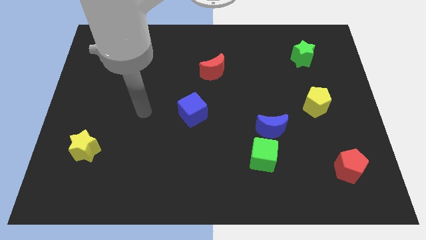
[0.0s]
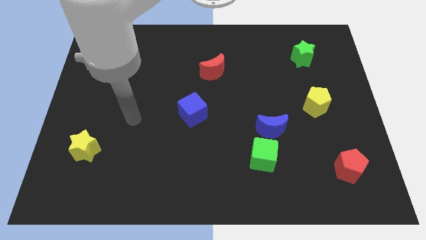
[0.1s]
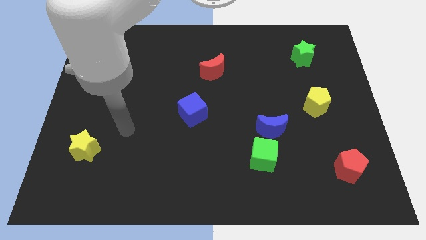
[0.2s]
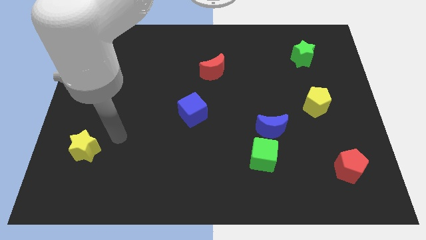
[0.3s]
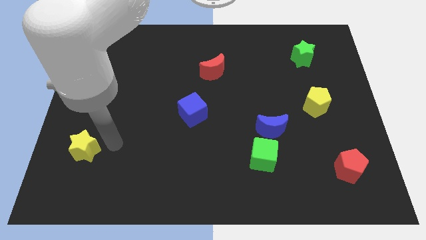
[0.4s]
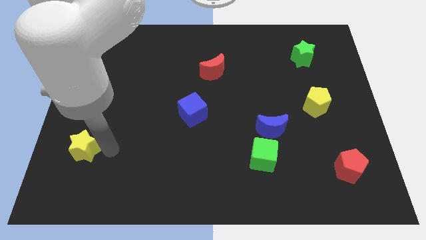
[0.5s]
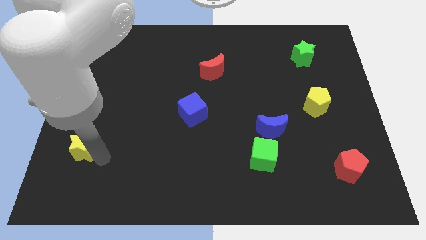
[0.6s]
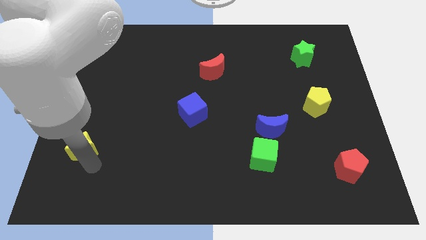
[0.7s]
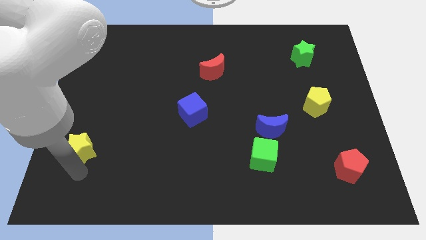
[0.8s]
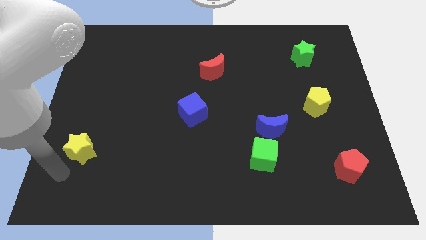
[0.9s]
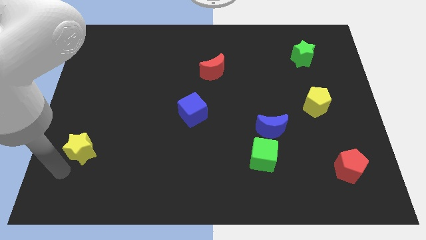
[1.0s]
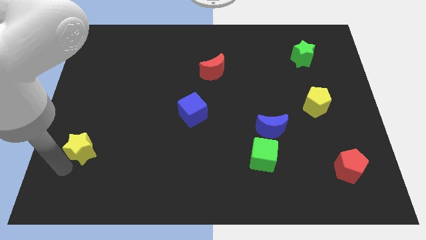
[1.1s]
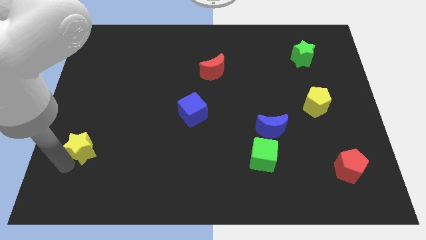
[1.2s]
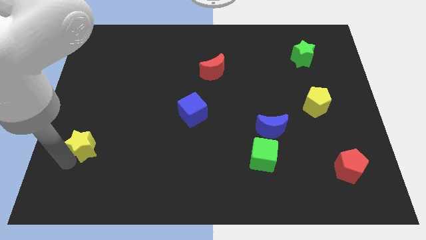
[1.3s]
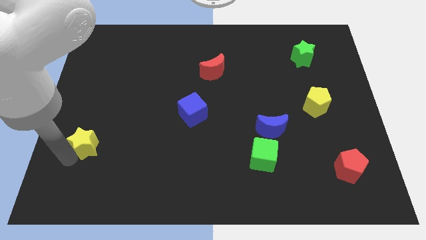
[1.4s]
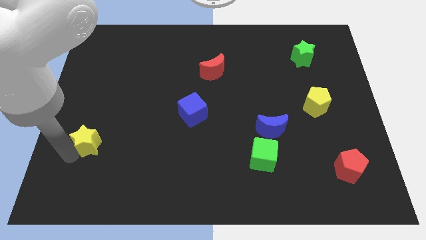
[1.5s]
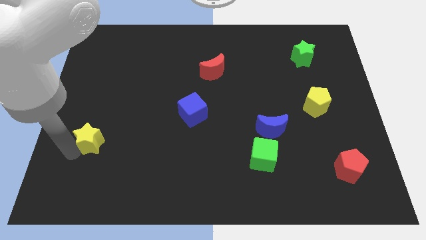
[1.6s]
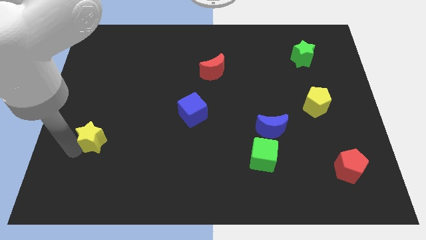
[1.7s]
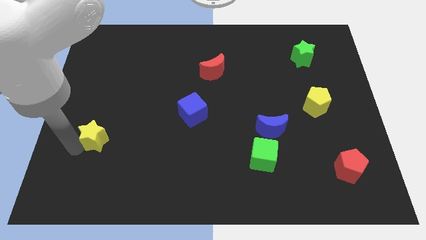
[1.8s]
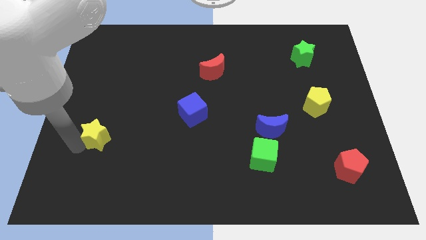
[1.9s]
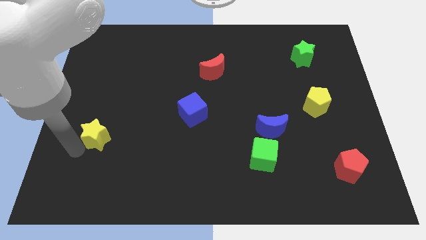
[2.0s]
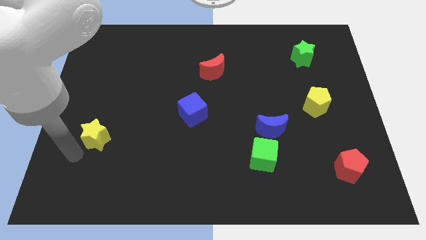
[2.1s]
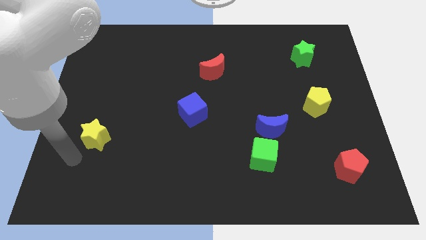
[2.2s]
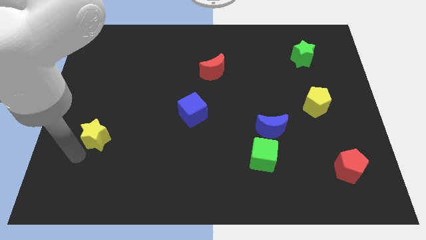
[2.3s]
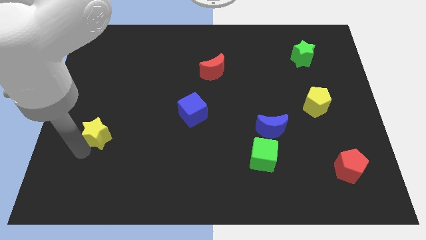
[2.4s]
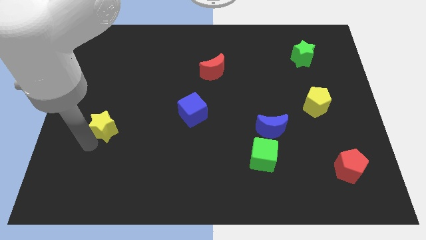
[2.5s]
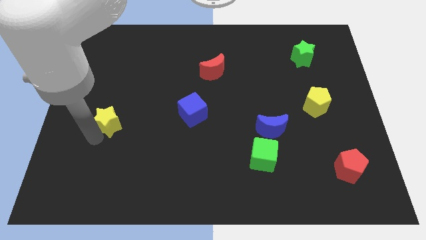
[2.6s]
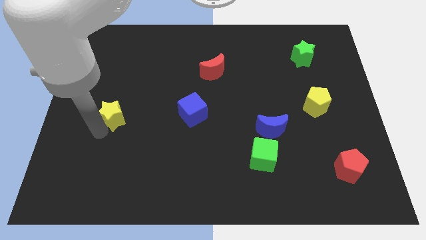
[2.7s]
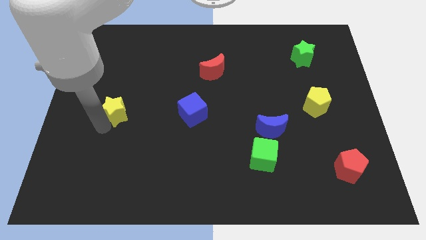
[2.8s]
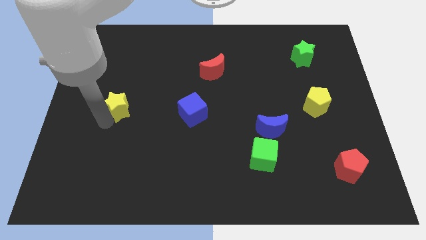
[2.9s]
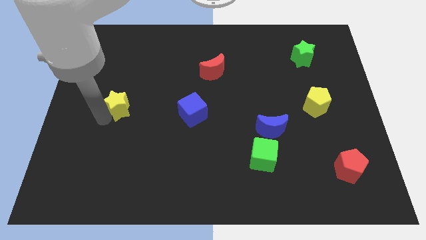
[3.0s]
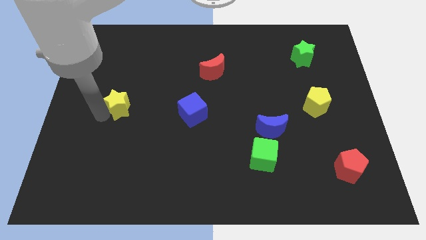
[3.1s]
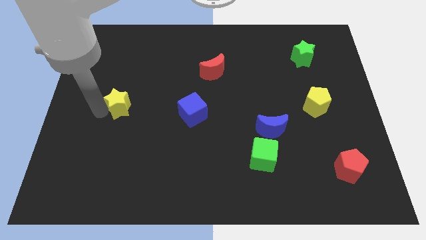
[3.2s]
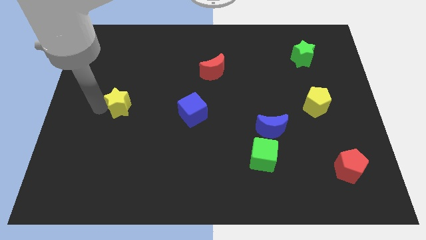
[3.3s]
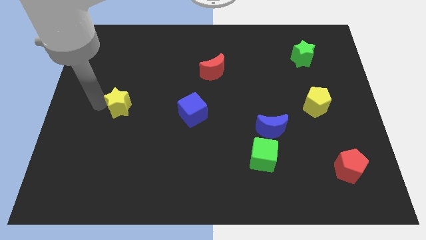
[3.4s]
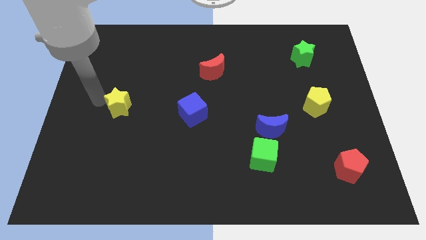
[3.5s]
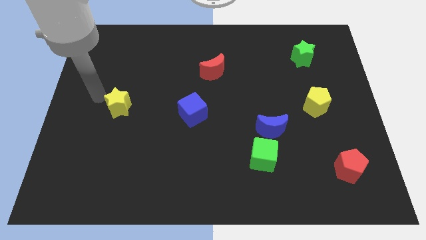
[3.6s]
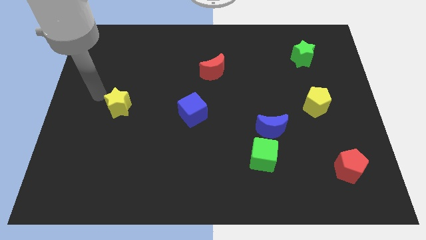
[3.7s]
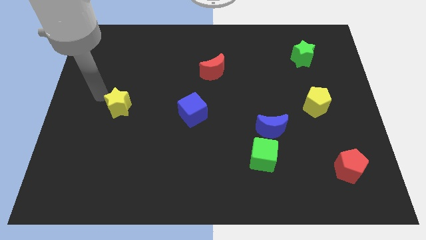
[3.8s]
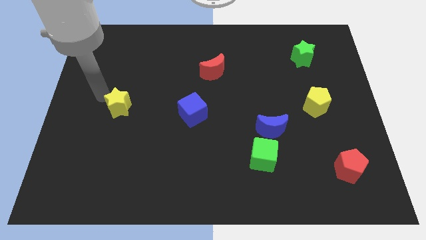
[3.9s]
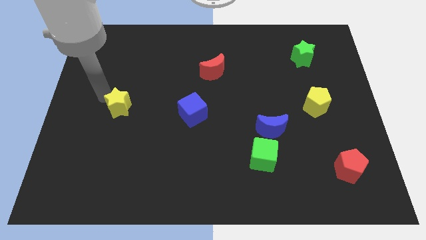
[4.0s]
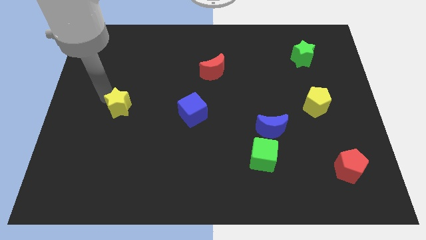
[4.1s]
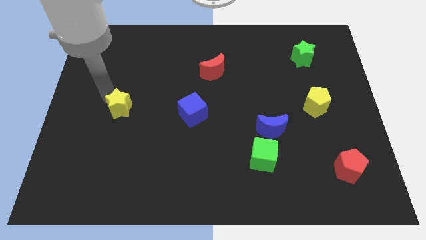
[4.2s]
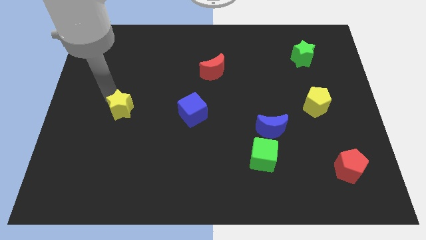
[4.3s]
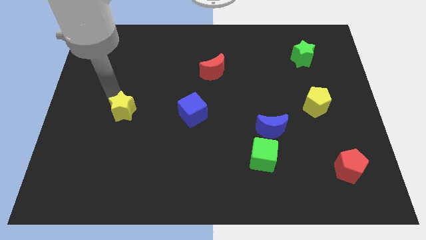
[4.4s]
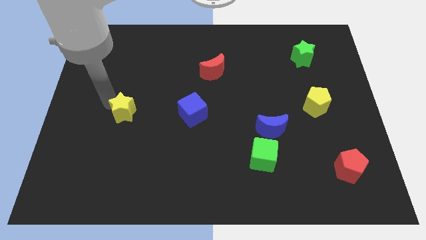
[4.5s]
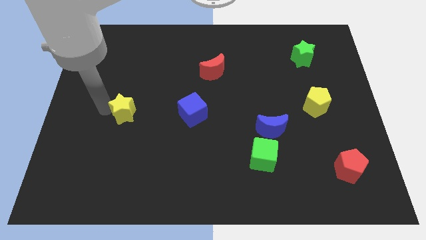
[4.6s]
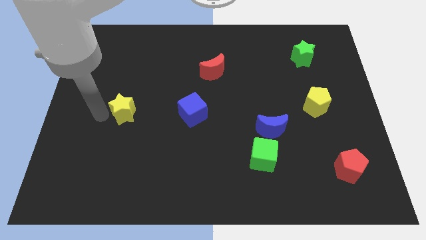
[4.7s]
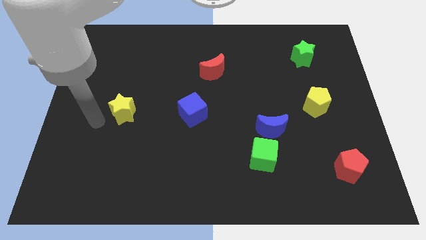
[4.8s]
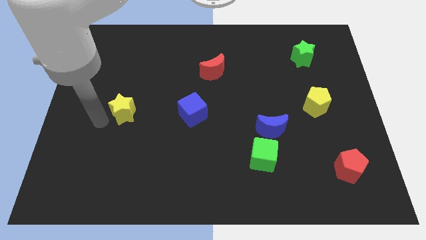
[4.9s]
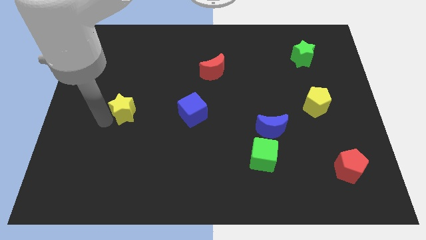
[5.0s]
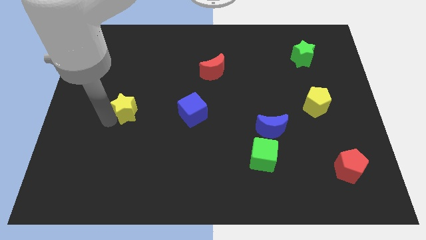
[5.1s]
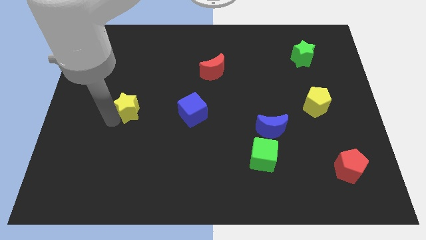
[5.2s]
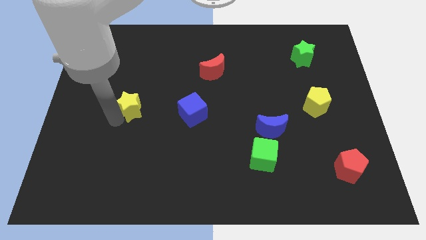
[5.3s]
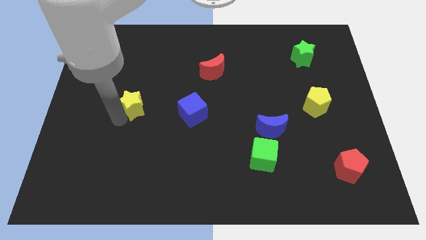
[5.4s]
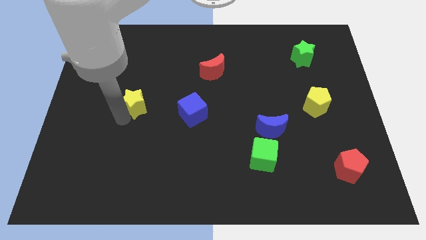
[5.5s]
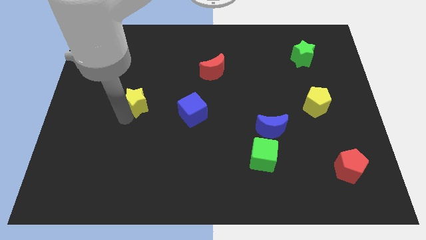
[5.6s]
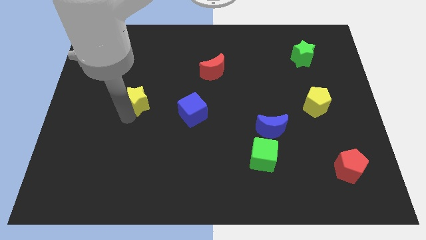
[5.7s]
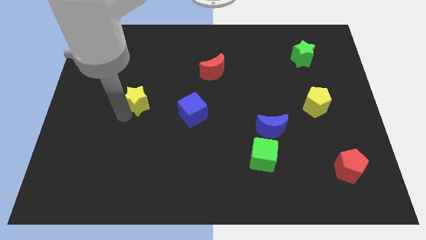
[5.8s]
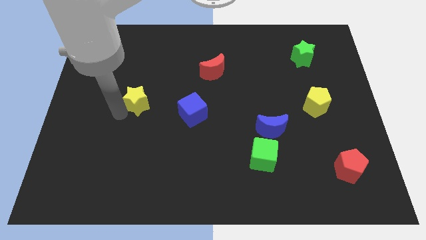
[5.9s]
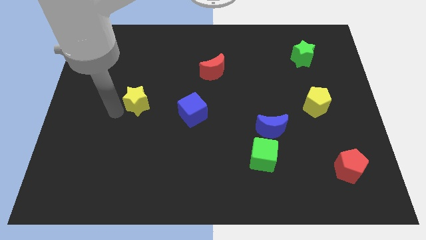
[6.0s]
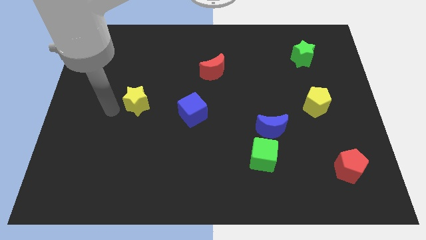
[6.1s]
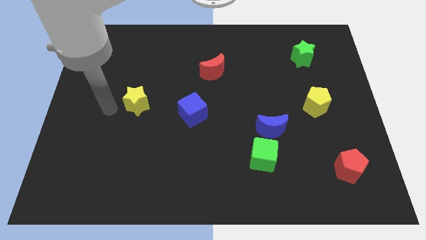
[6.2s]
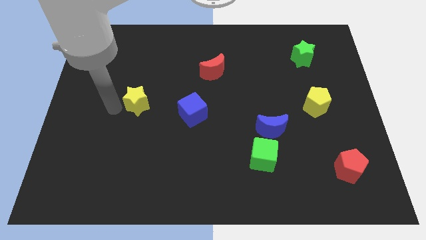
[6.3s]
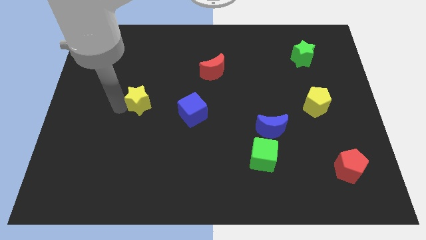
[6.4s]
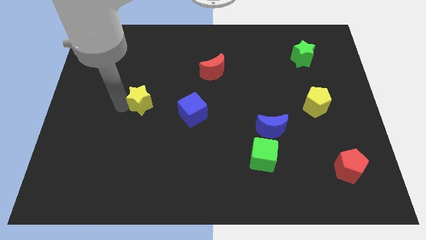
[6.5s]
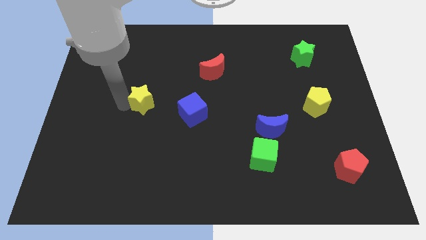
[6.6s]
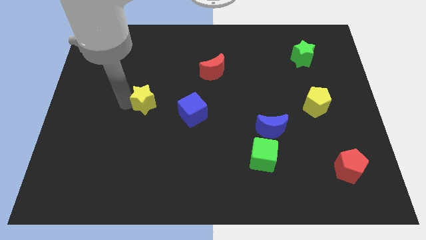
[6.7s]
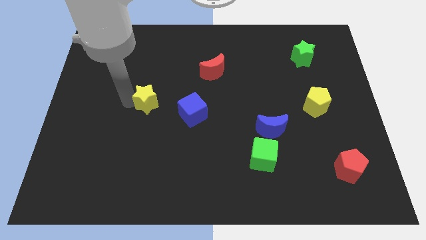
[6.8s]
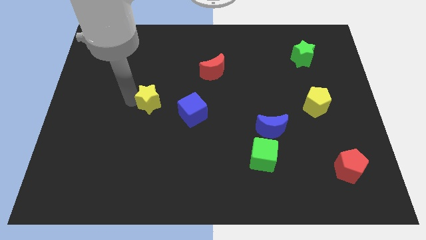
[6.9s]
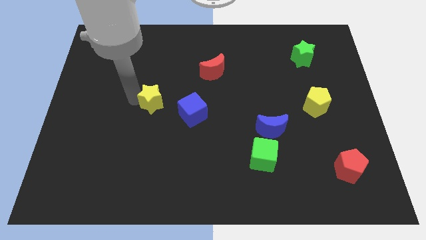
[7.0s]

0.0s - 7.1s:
push the yellow star to the top left side of the blue cube

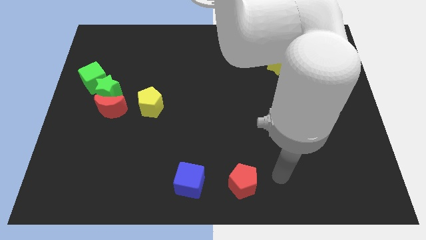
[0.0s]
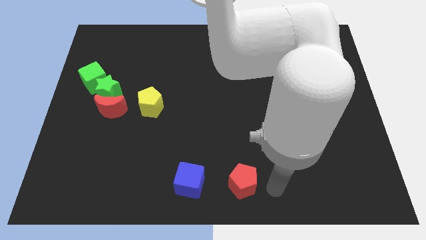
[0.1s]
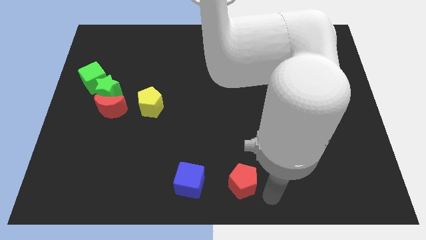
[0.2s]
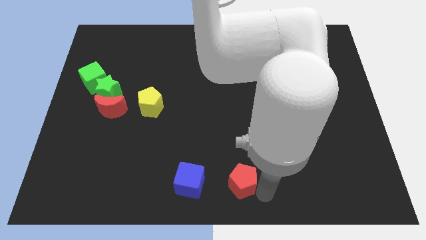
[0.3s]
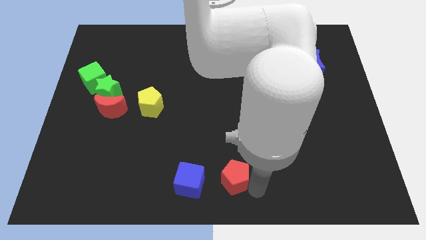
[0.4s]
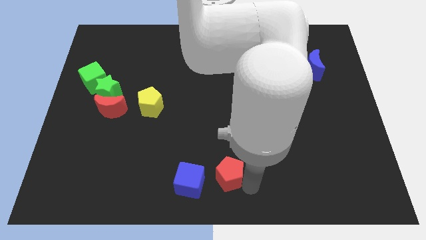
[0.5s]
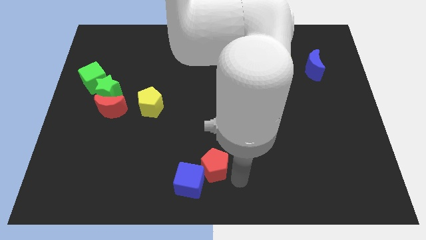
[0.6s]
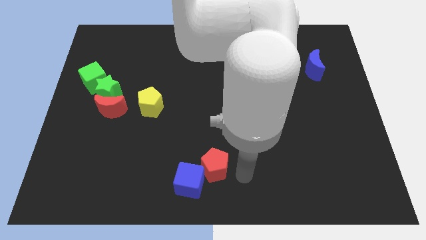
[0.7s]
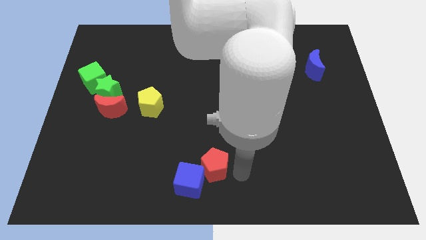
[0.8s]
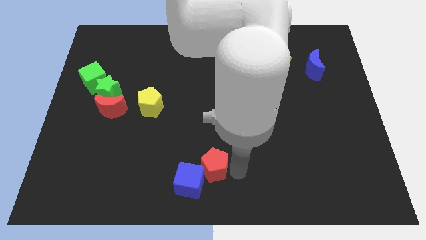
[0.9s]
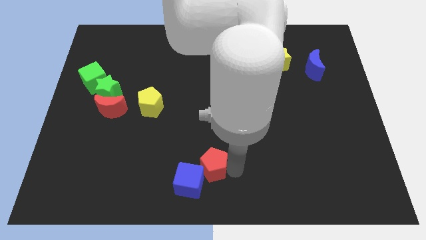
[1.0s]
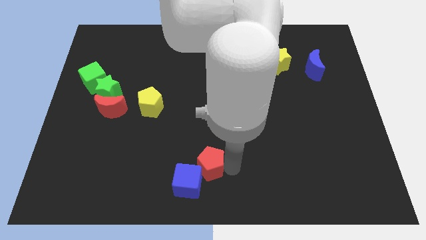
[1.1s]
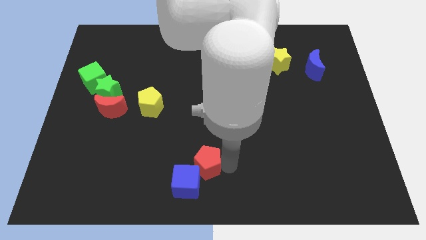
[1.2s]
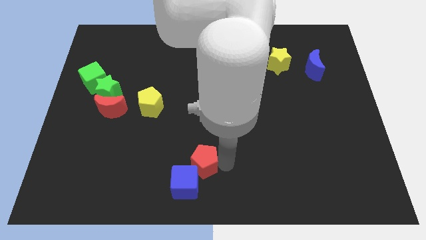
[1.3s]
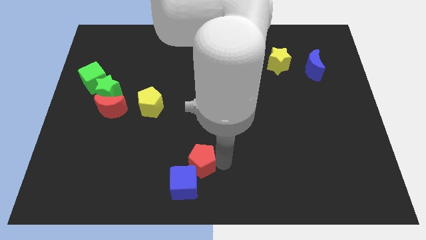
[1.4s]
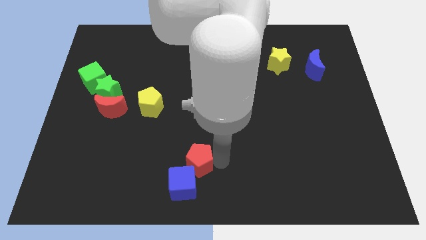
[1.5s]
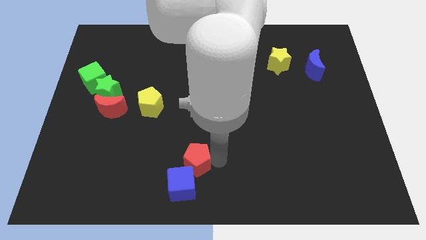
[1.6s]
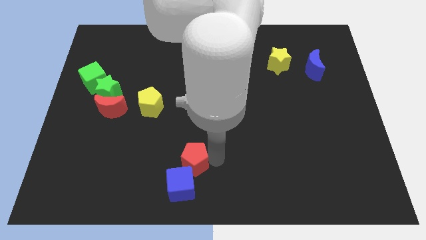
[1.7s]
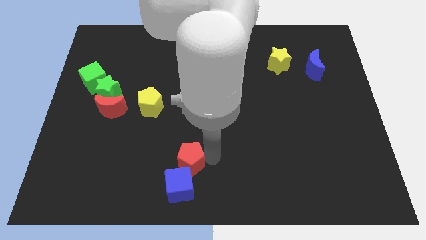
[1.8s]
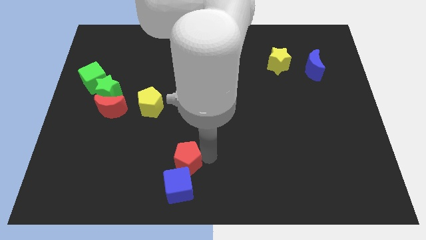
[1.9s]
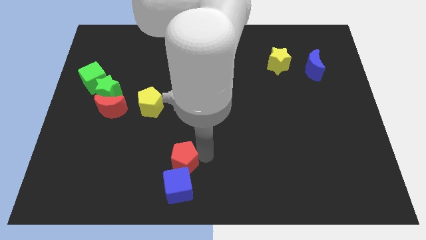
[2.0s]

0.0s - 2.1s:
push the red pentagon diagonally up and to the left of the blue cube
